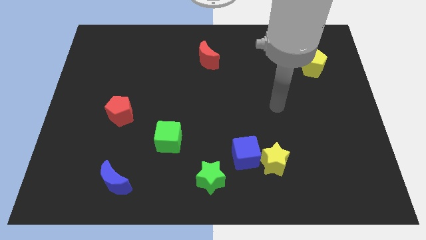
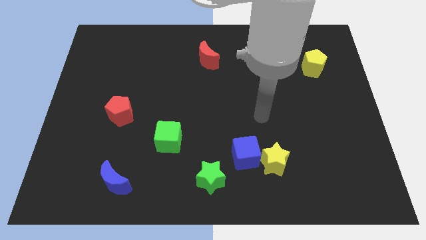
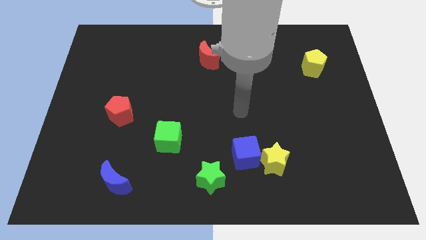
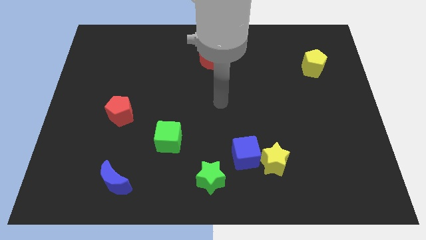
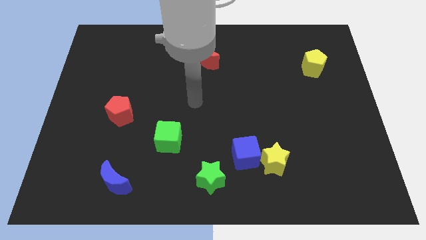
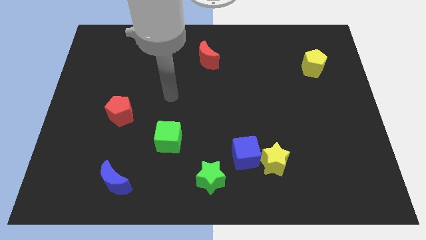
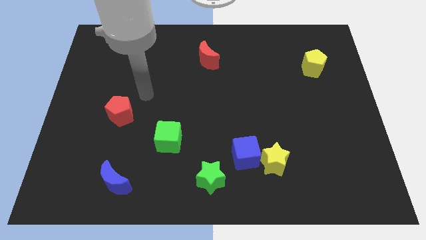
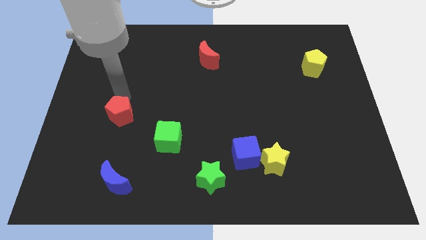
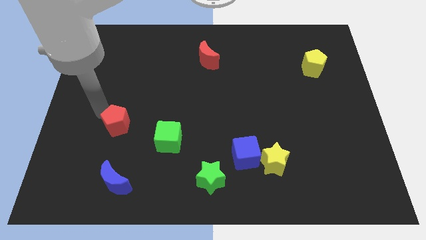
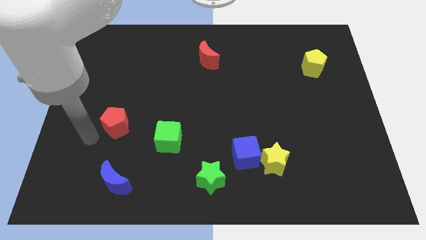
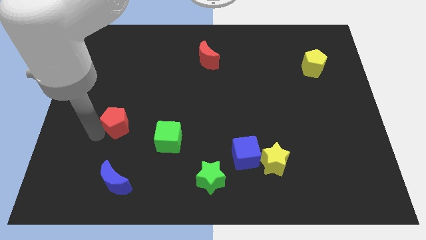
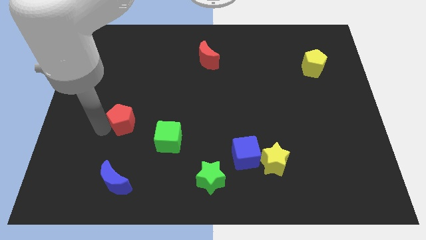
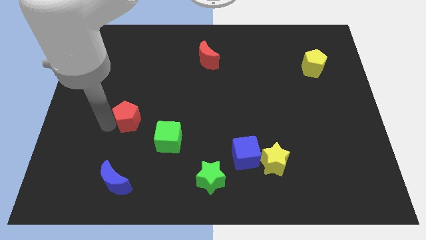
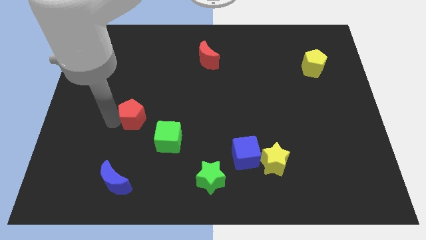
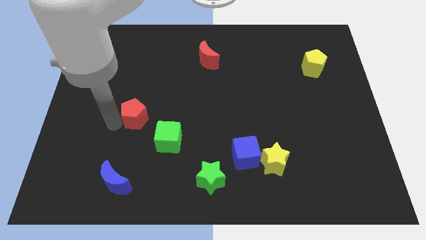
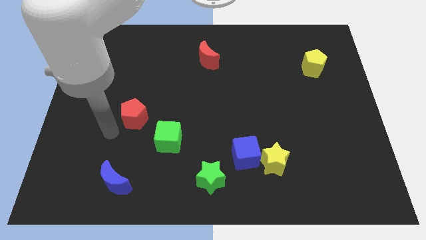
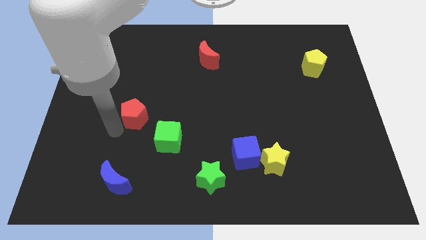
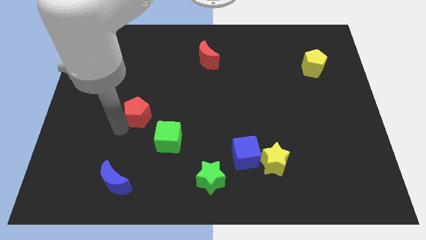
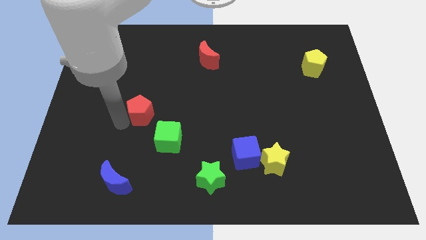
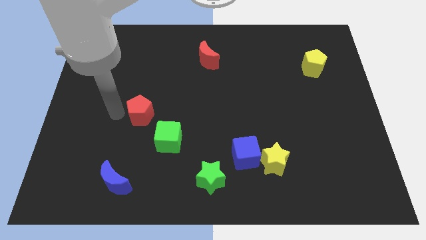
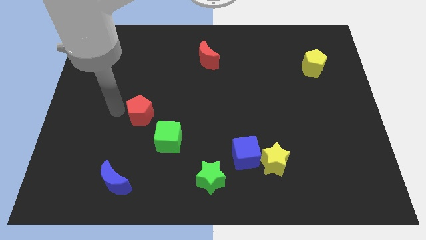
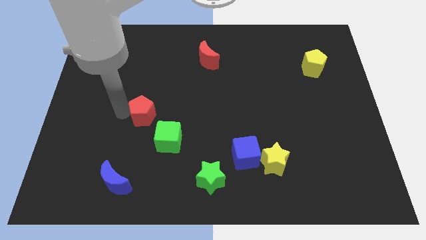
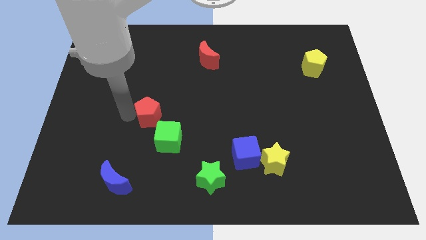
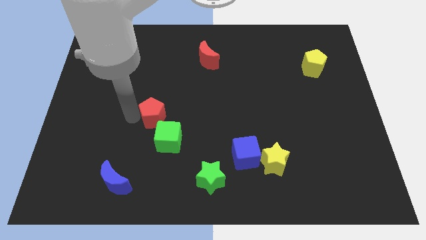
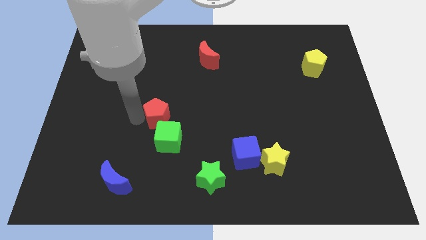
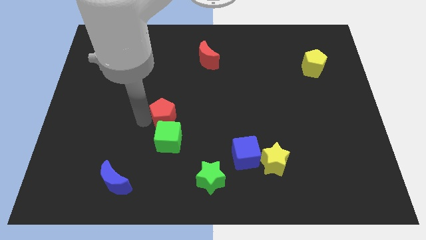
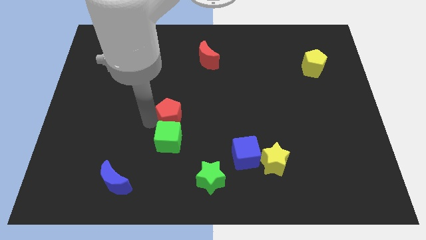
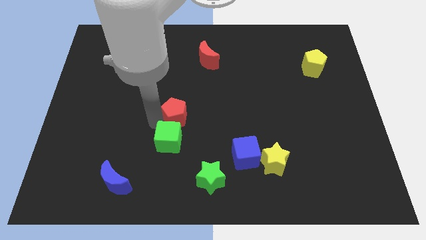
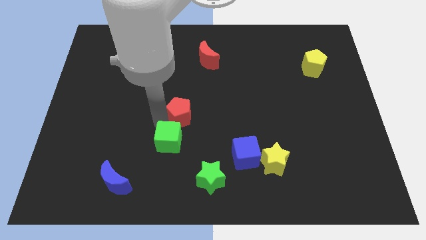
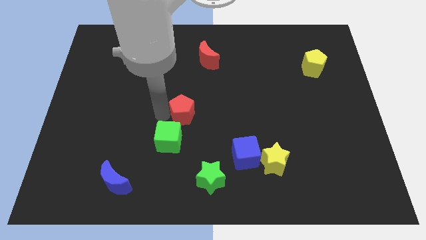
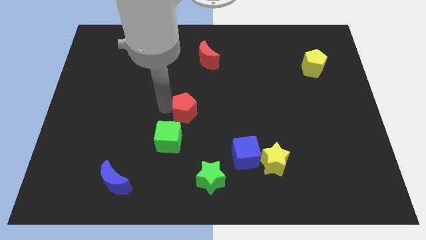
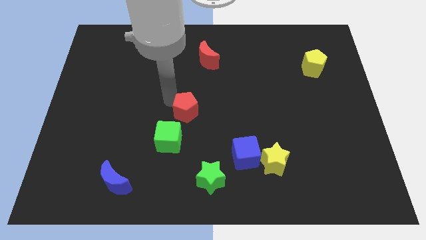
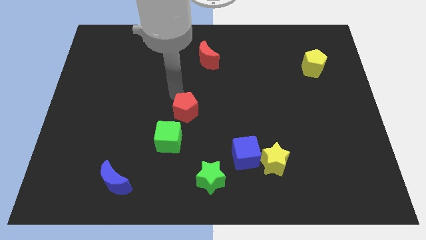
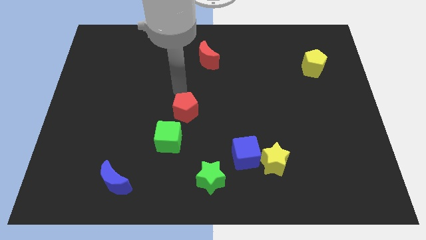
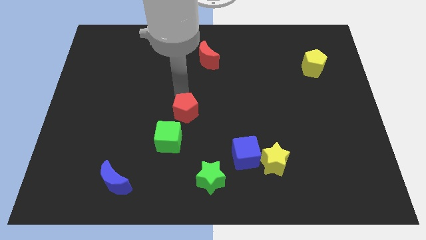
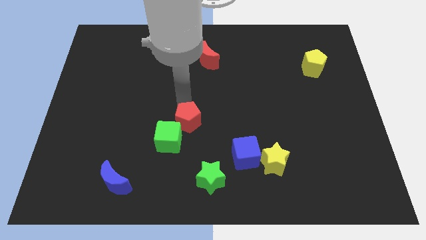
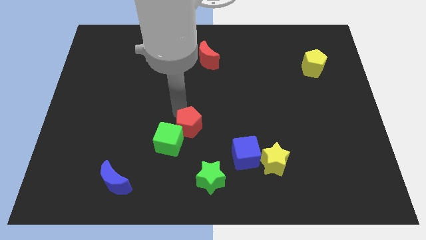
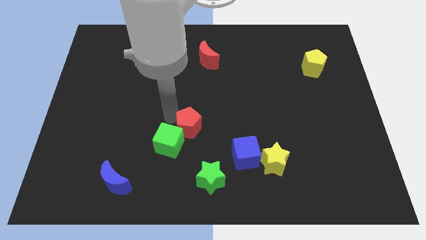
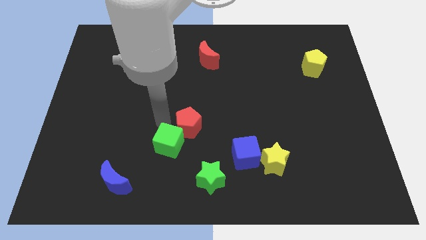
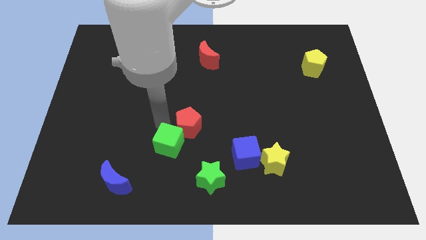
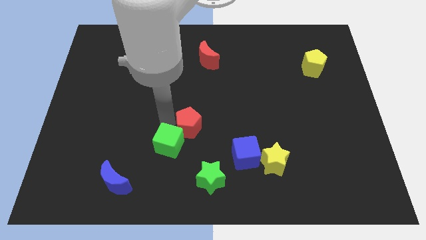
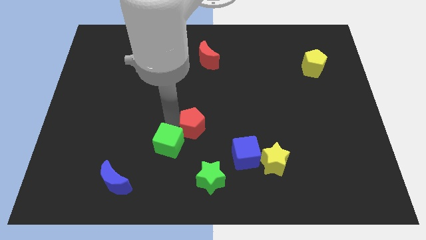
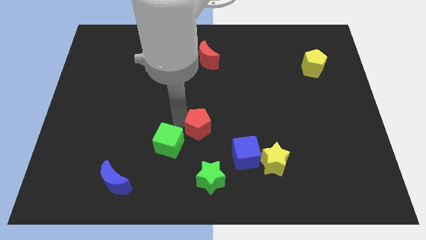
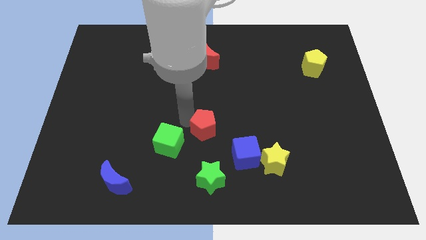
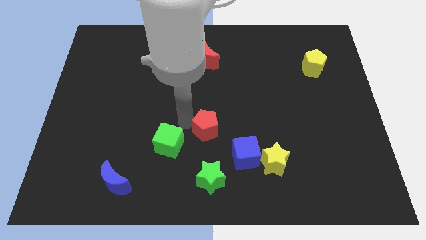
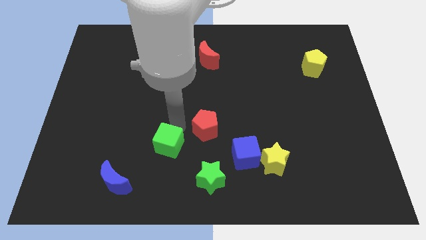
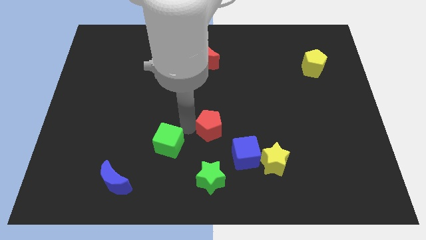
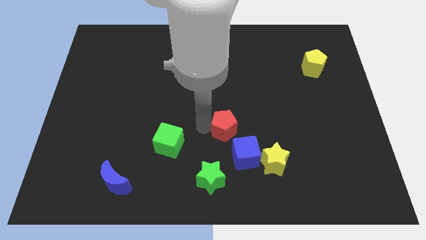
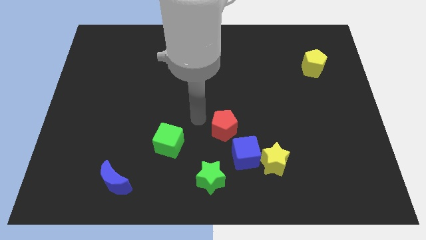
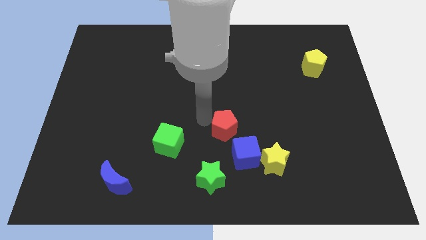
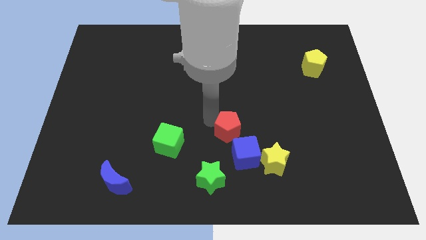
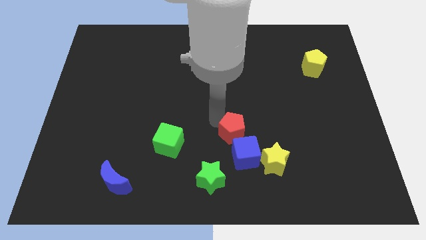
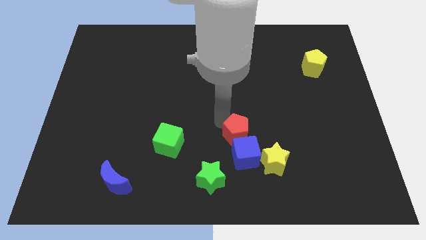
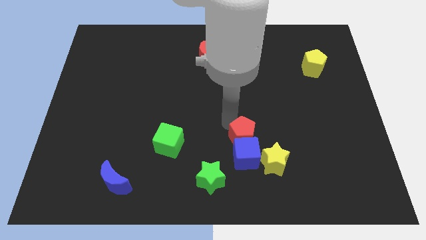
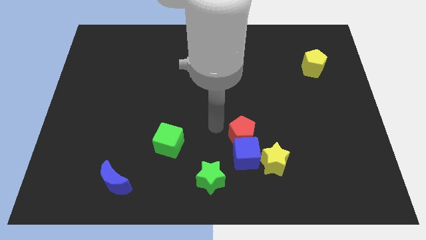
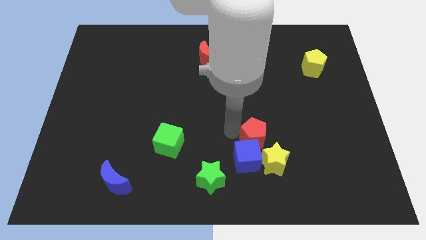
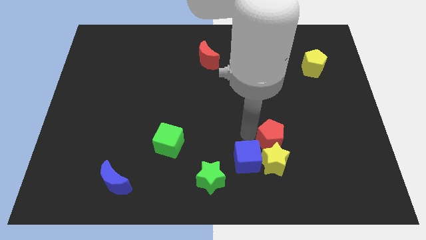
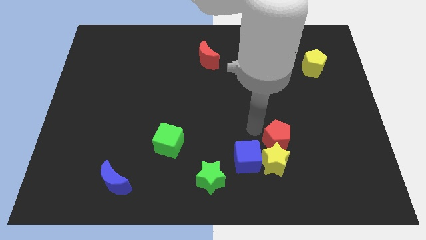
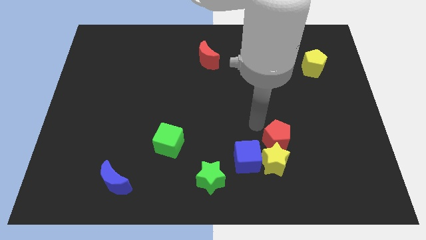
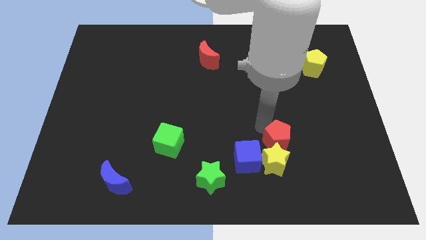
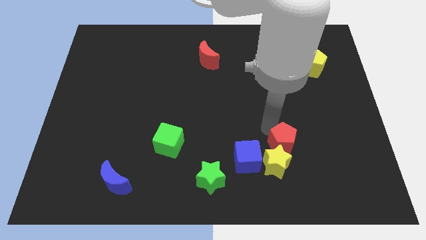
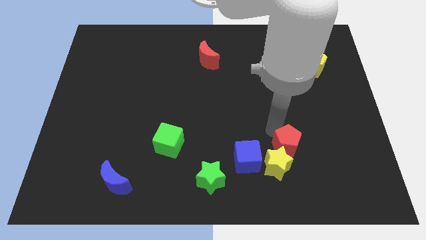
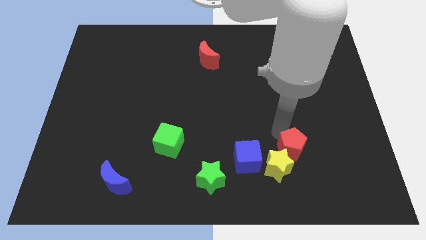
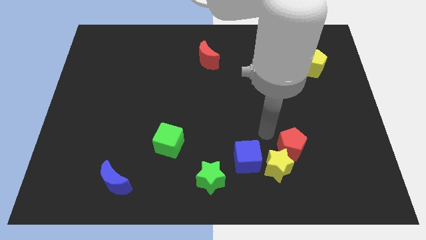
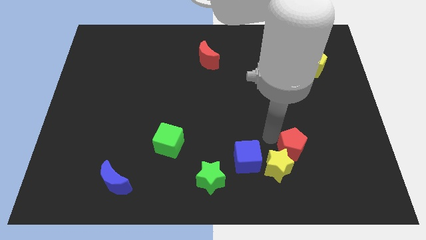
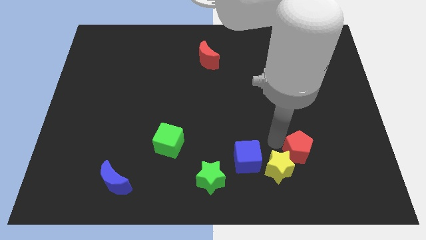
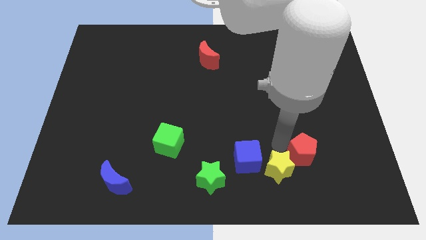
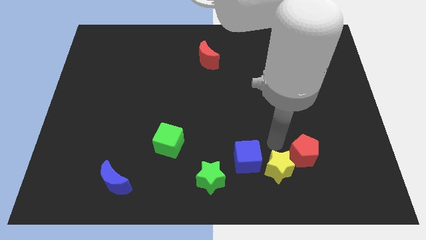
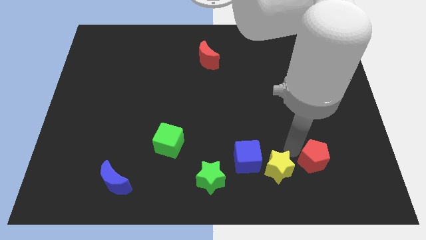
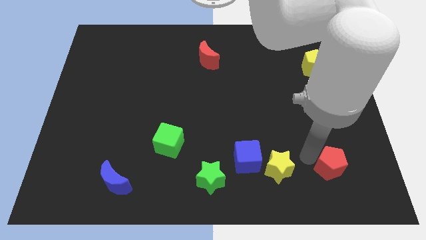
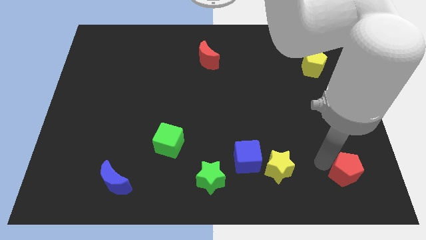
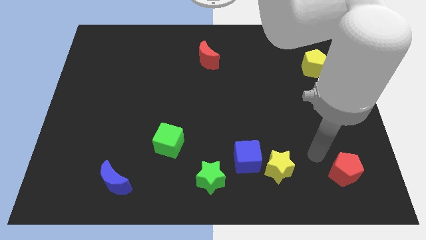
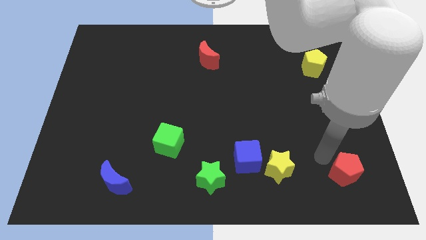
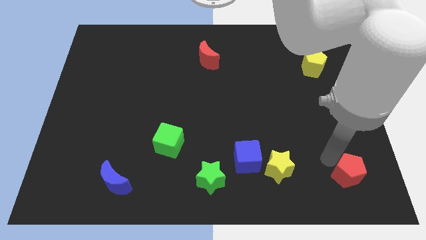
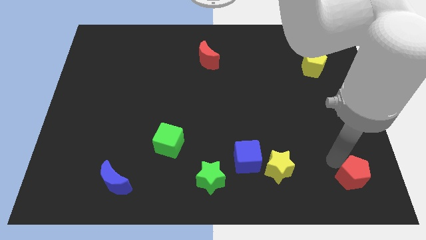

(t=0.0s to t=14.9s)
push the red pentagon to the bottom right corner
